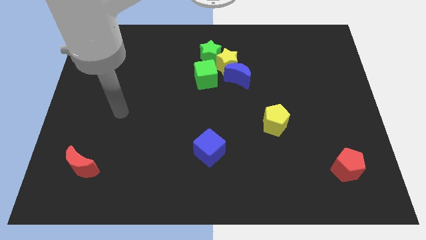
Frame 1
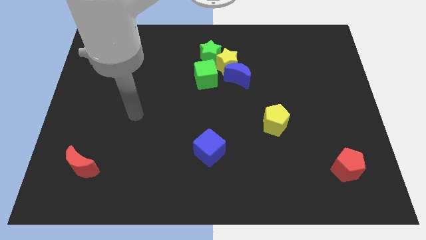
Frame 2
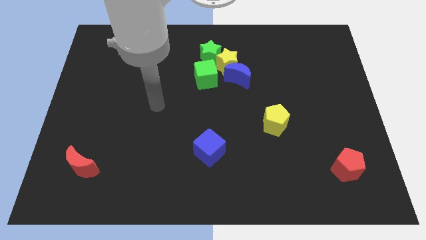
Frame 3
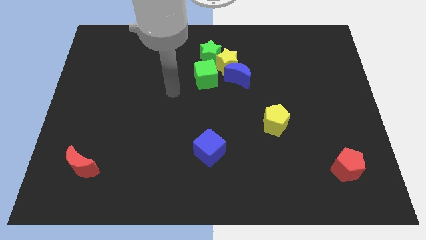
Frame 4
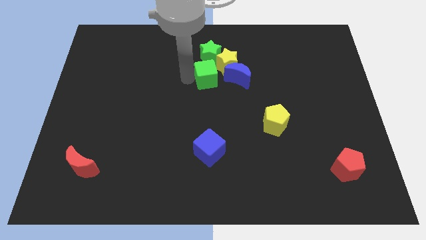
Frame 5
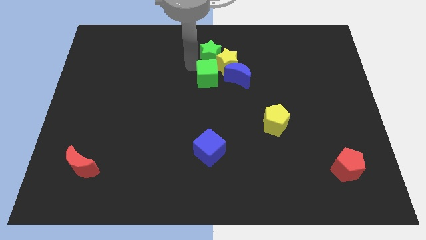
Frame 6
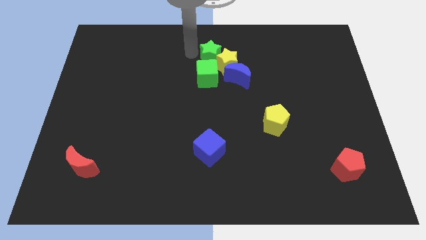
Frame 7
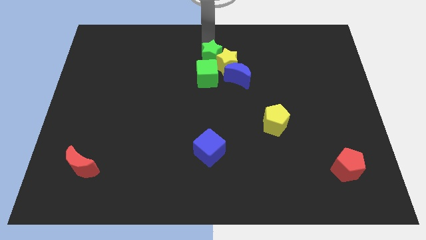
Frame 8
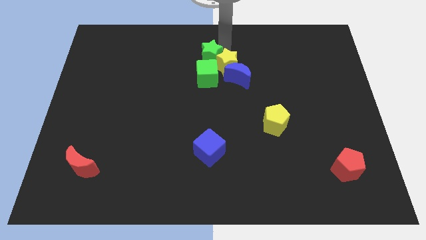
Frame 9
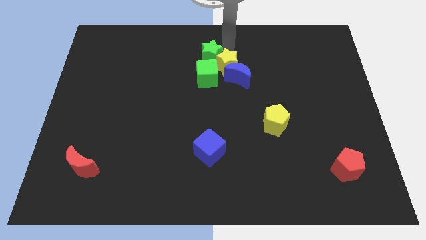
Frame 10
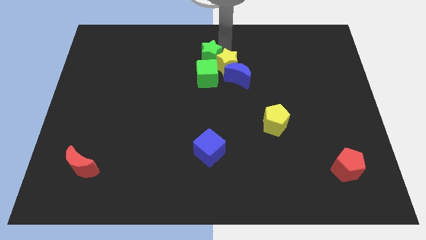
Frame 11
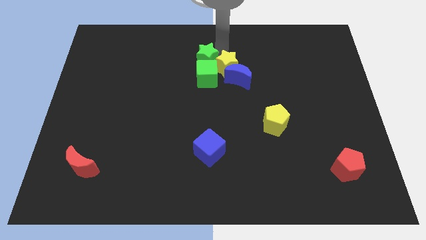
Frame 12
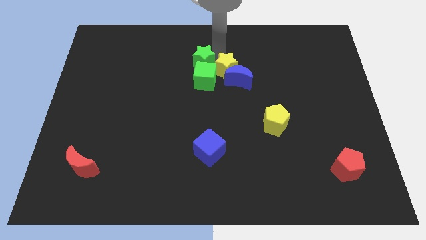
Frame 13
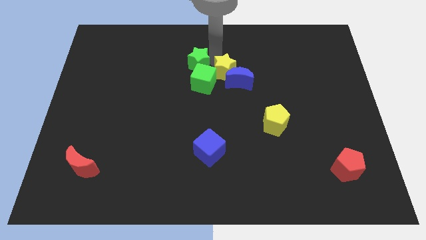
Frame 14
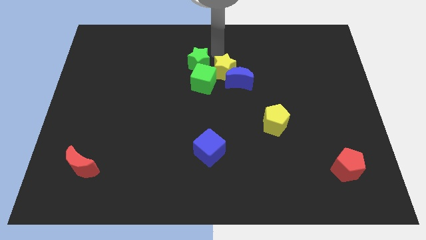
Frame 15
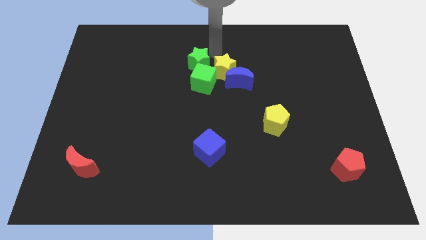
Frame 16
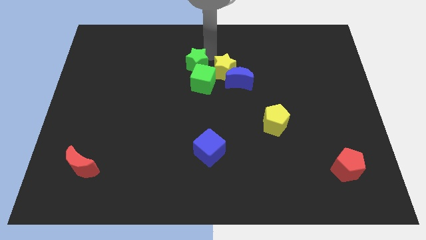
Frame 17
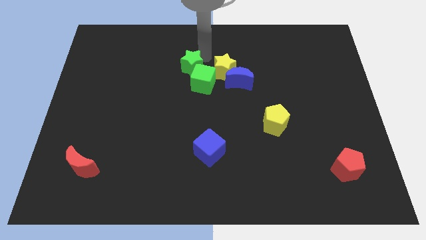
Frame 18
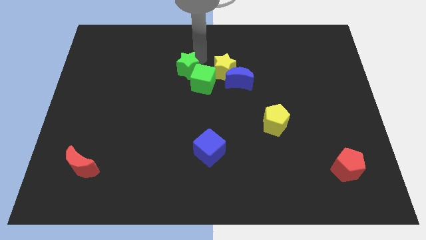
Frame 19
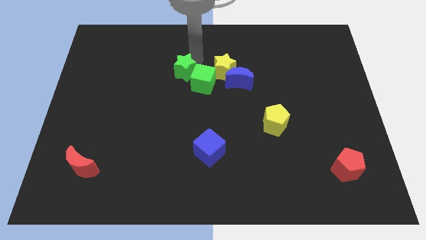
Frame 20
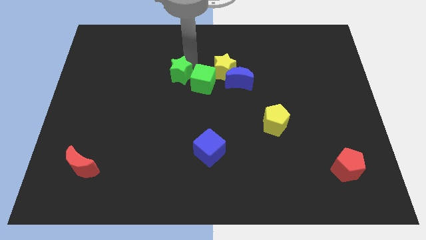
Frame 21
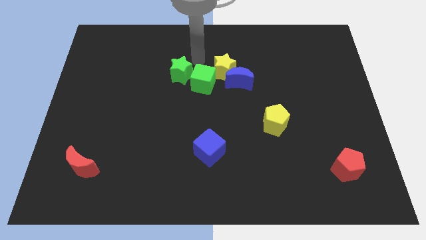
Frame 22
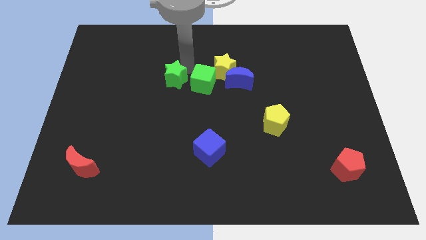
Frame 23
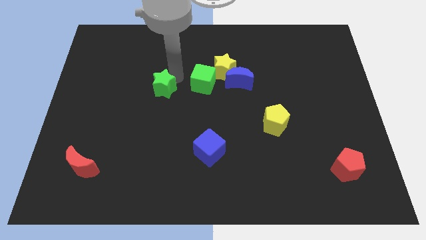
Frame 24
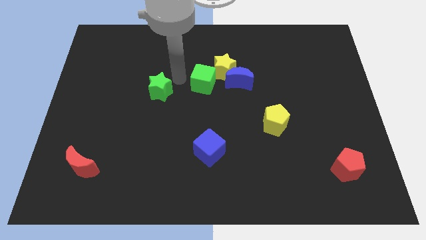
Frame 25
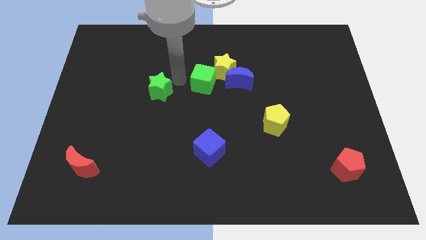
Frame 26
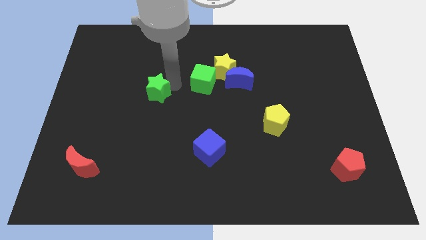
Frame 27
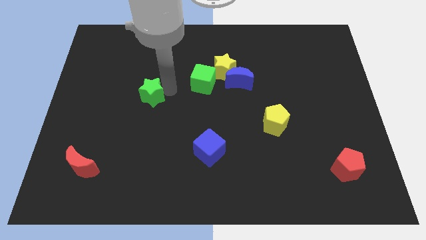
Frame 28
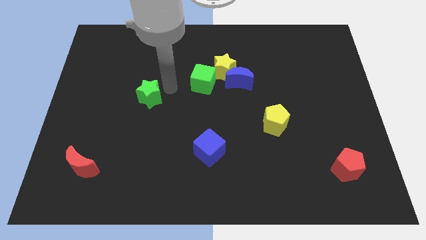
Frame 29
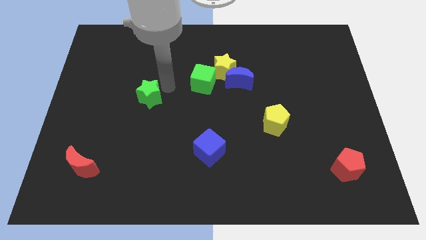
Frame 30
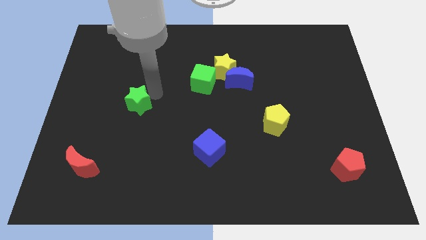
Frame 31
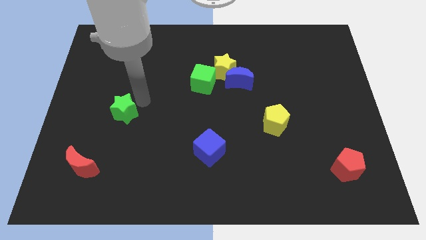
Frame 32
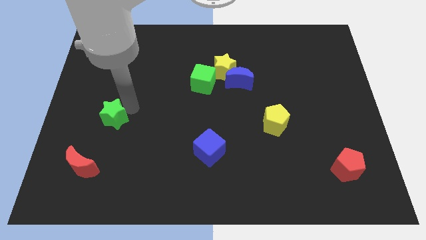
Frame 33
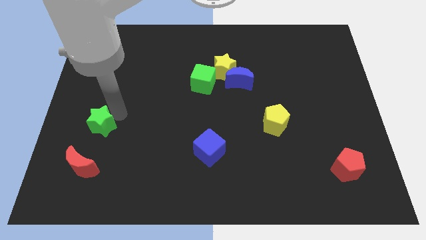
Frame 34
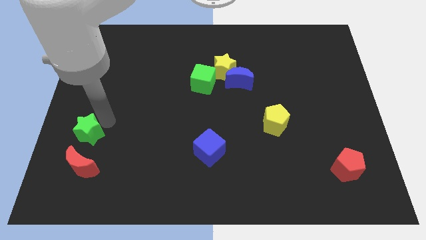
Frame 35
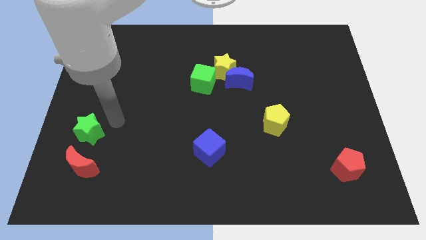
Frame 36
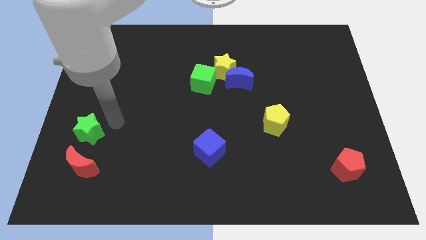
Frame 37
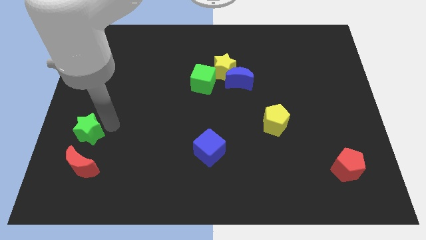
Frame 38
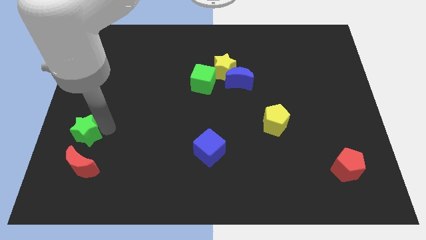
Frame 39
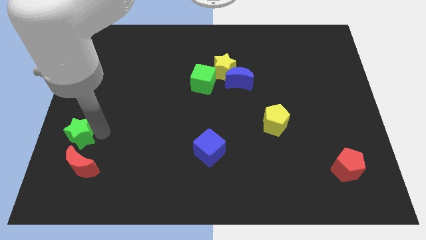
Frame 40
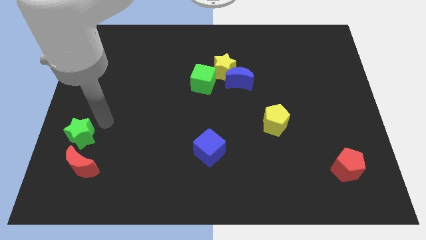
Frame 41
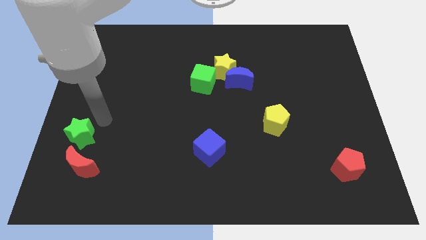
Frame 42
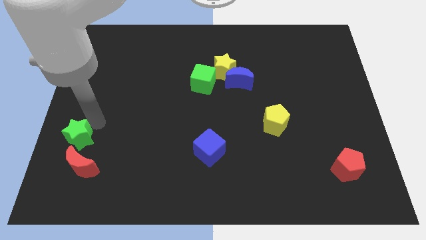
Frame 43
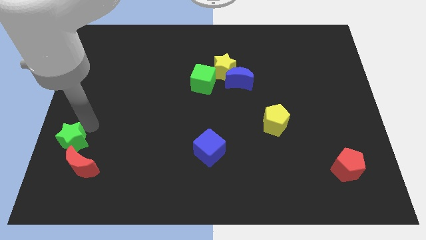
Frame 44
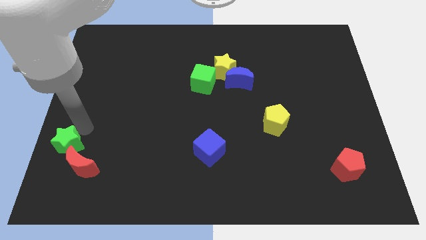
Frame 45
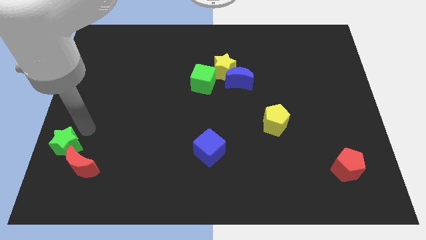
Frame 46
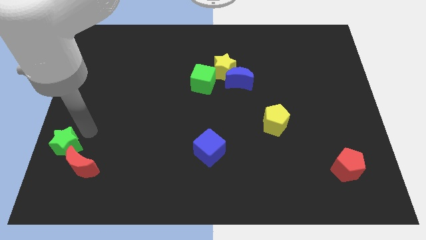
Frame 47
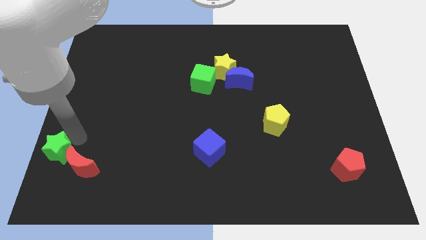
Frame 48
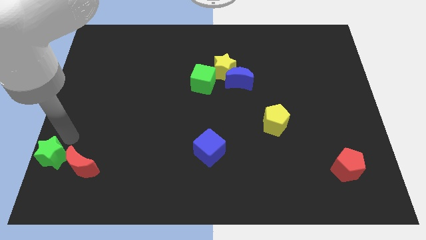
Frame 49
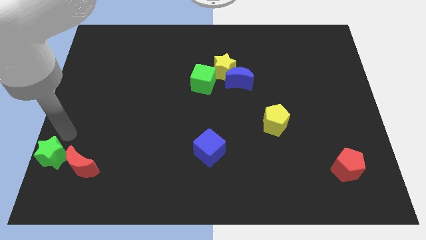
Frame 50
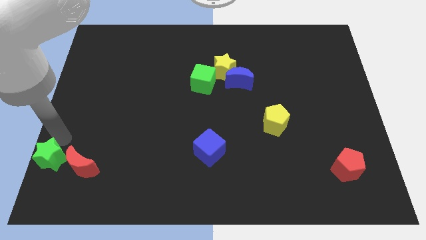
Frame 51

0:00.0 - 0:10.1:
put the green star to the lower left corner

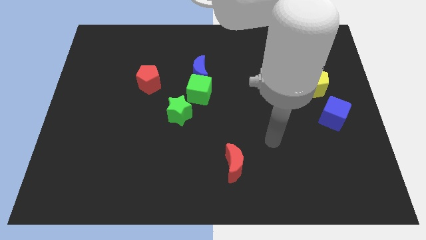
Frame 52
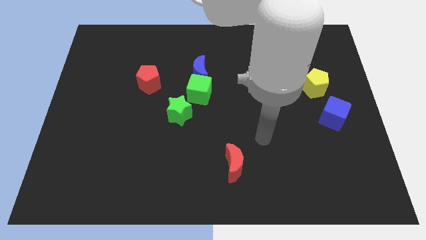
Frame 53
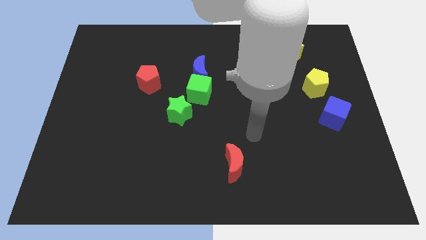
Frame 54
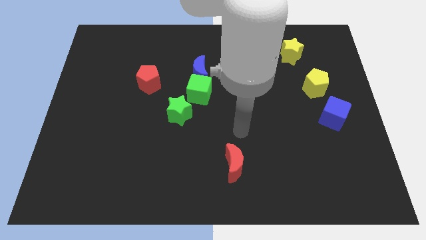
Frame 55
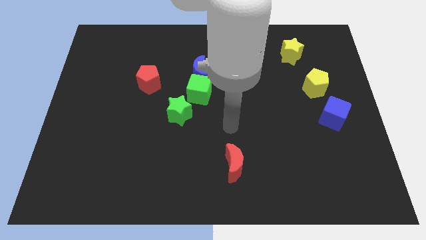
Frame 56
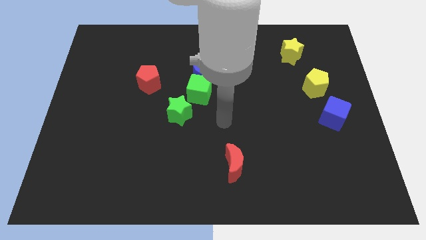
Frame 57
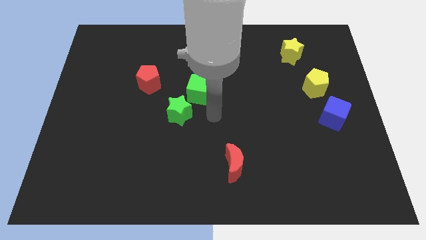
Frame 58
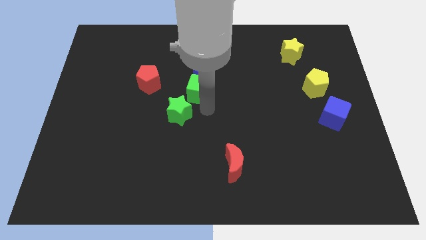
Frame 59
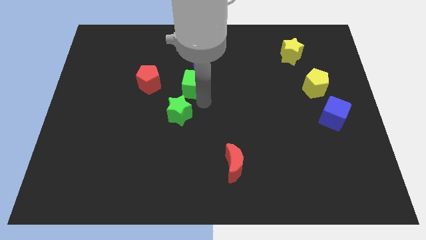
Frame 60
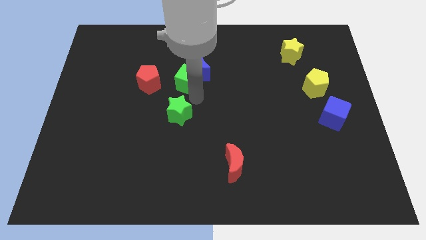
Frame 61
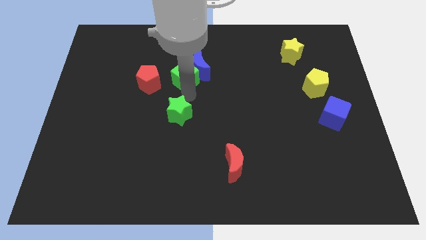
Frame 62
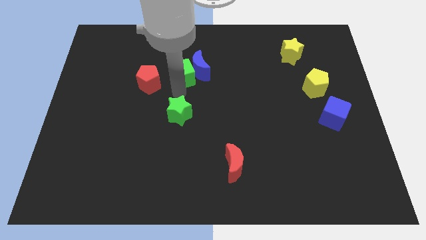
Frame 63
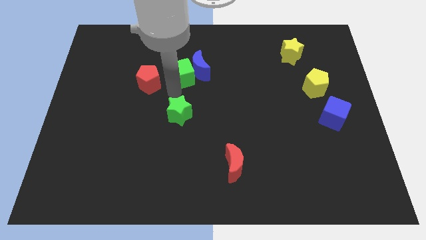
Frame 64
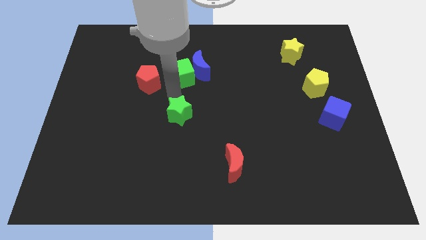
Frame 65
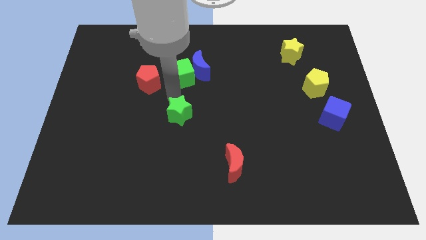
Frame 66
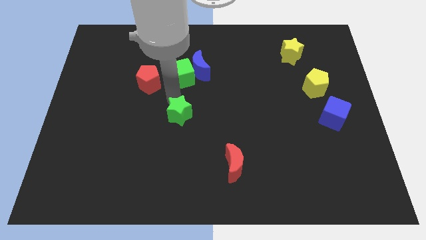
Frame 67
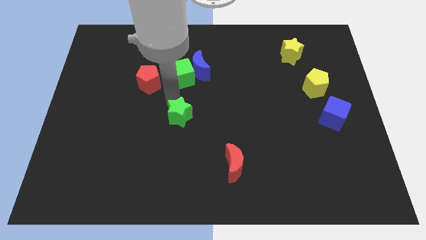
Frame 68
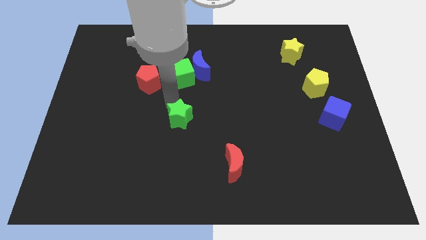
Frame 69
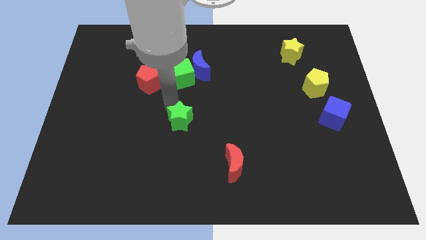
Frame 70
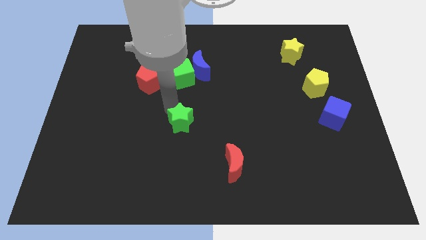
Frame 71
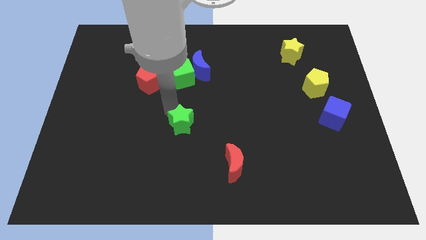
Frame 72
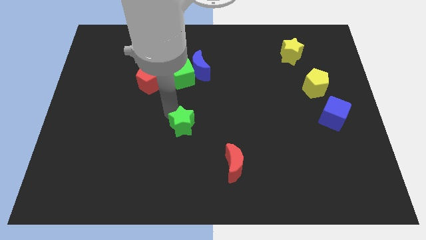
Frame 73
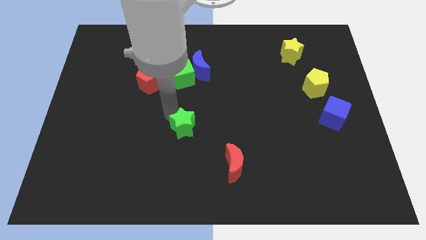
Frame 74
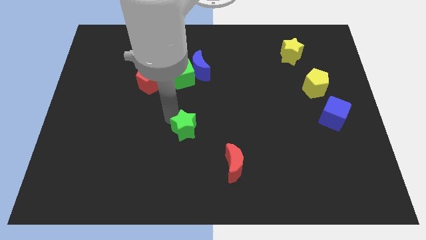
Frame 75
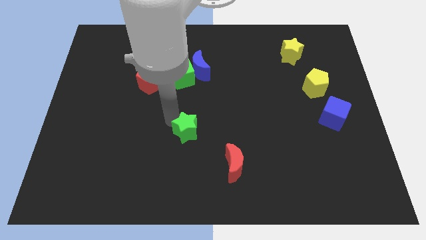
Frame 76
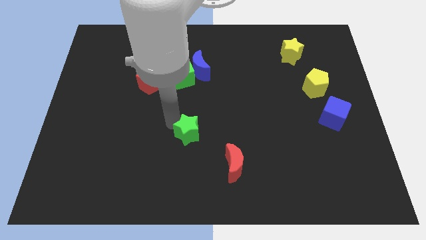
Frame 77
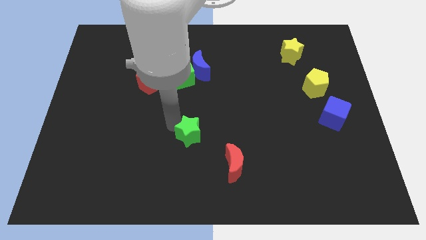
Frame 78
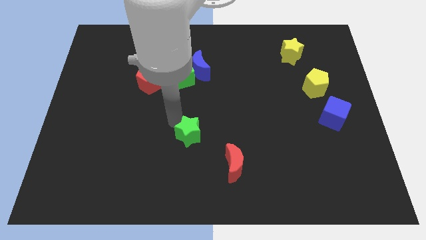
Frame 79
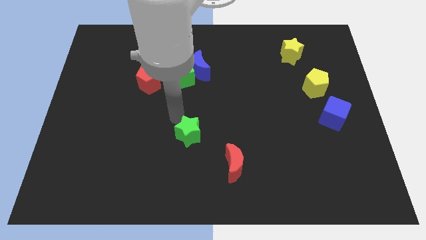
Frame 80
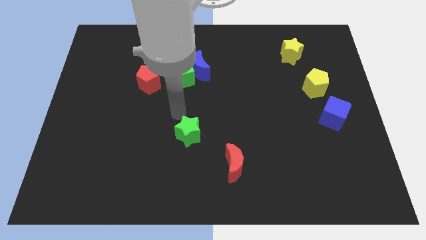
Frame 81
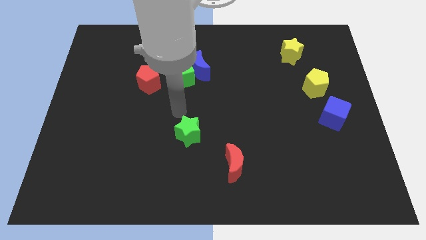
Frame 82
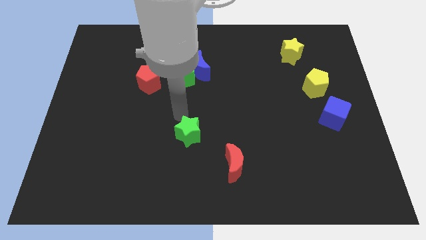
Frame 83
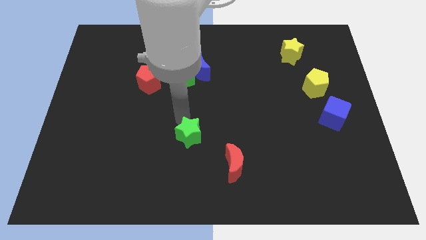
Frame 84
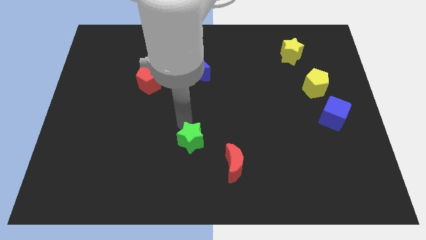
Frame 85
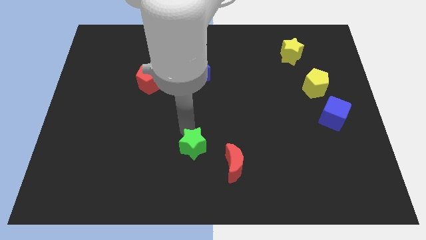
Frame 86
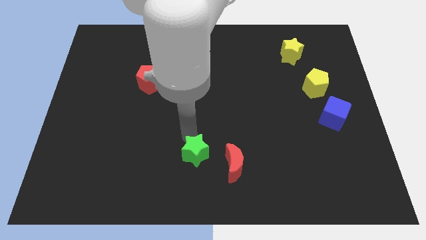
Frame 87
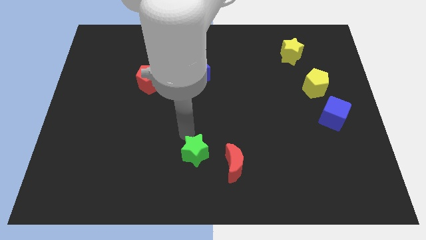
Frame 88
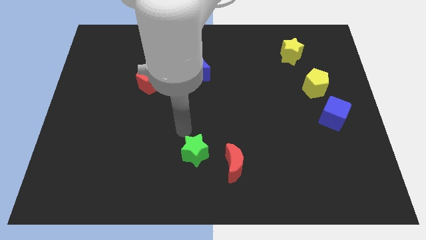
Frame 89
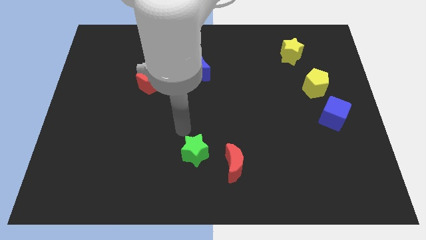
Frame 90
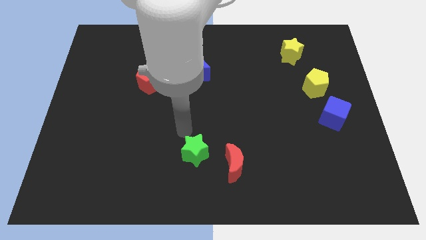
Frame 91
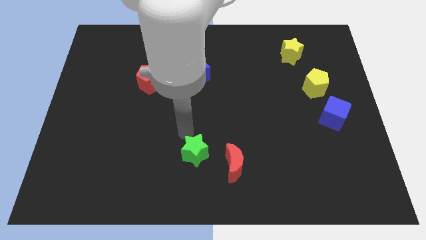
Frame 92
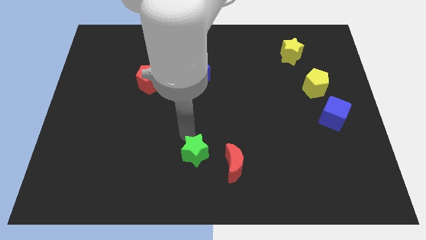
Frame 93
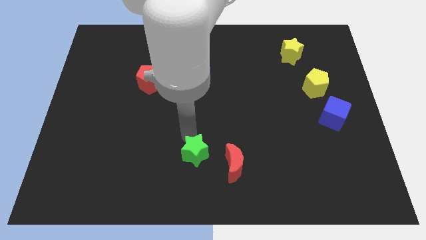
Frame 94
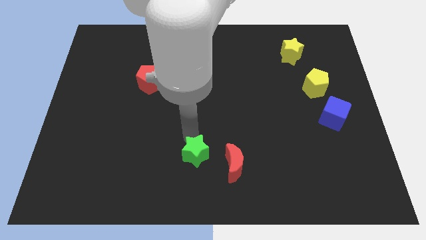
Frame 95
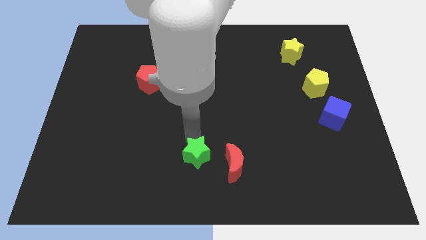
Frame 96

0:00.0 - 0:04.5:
move the green star to the bottom side
